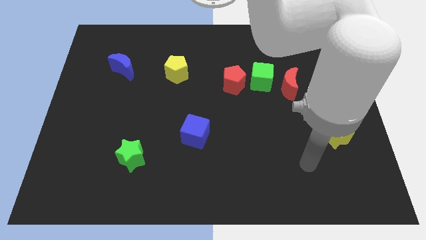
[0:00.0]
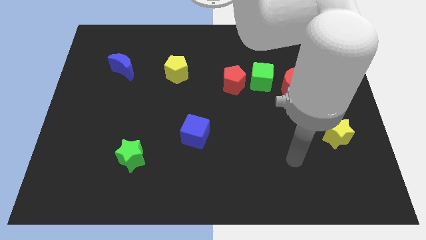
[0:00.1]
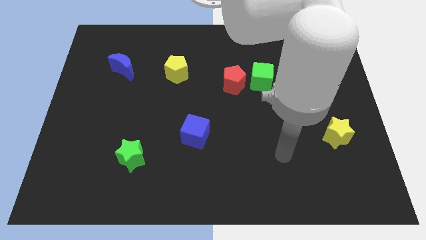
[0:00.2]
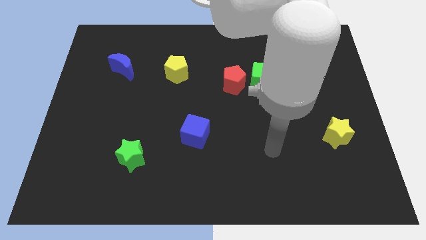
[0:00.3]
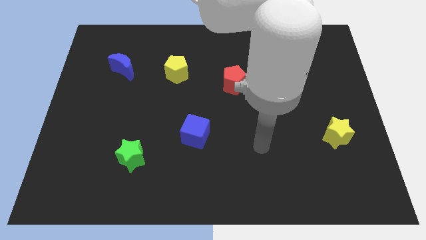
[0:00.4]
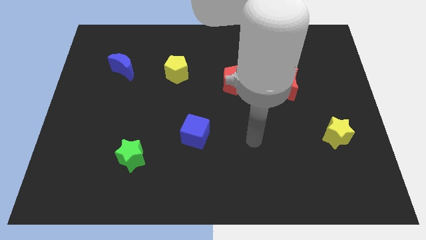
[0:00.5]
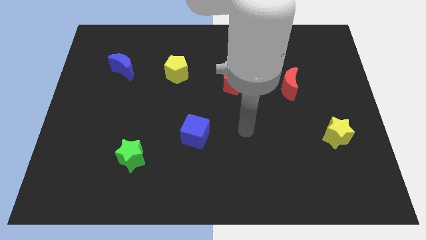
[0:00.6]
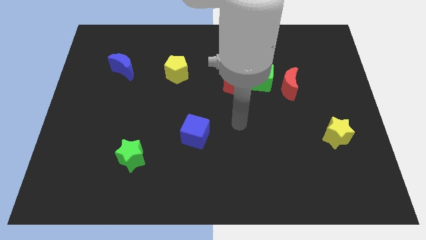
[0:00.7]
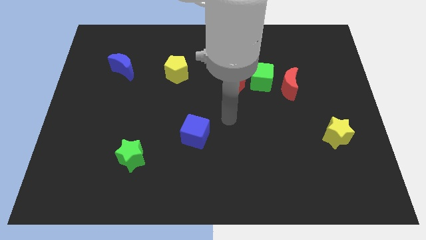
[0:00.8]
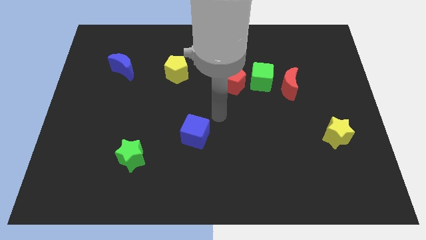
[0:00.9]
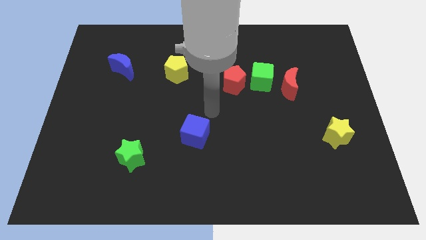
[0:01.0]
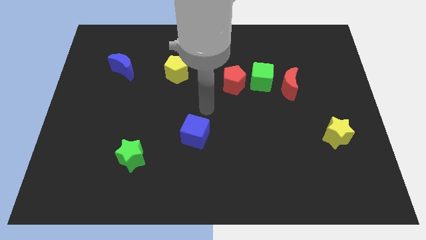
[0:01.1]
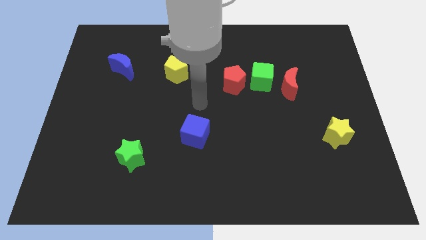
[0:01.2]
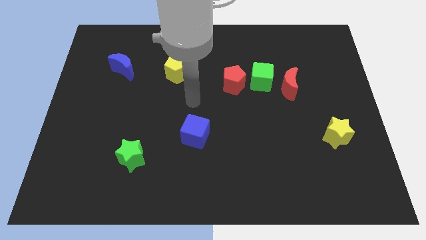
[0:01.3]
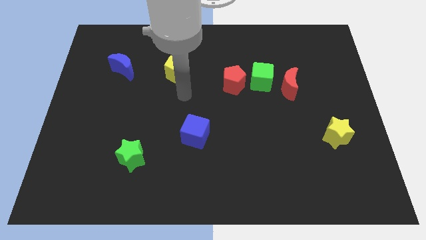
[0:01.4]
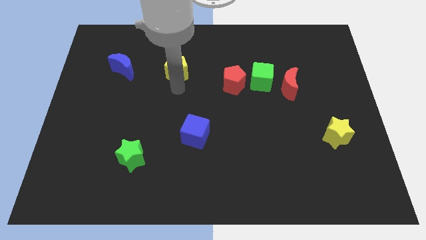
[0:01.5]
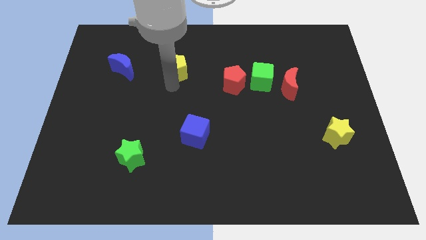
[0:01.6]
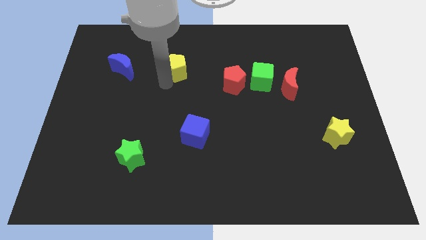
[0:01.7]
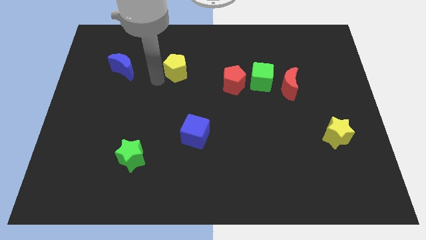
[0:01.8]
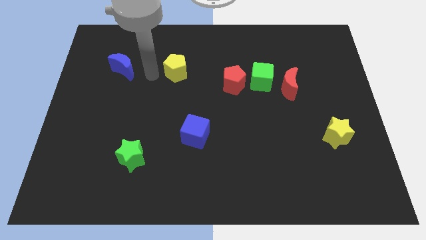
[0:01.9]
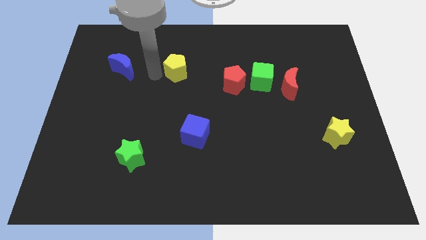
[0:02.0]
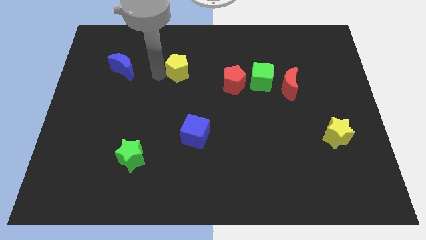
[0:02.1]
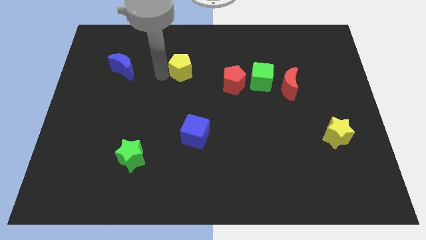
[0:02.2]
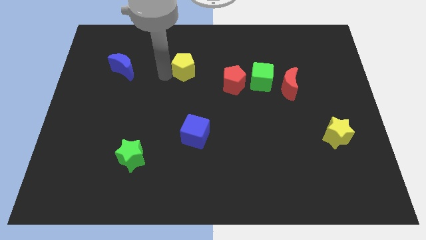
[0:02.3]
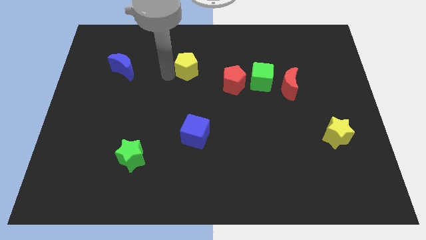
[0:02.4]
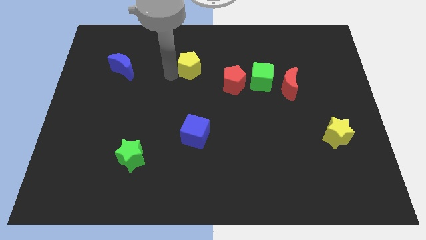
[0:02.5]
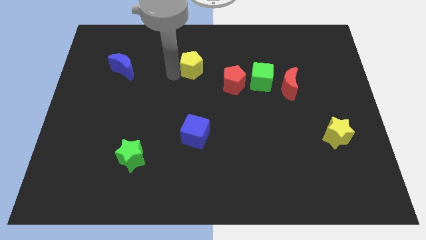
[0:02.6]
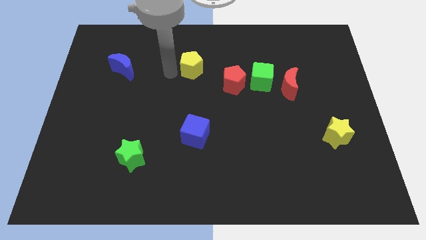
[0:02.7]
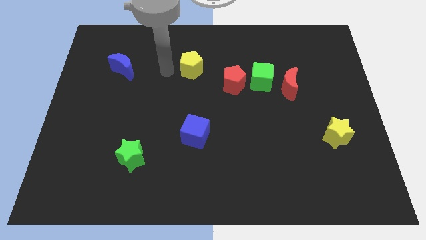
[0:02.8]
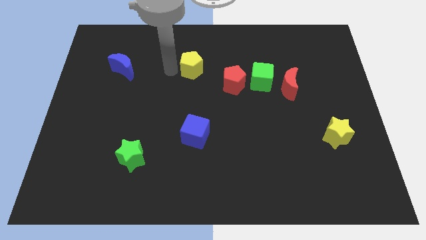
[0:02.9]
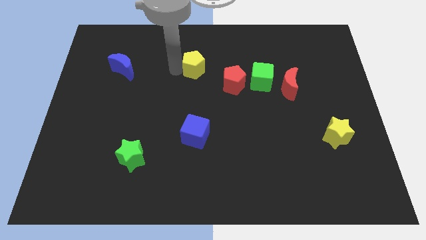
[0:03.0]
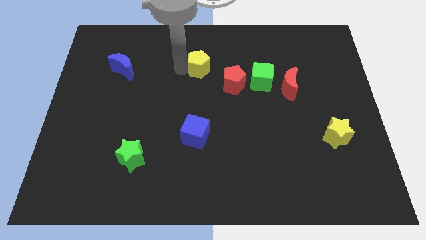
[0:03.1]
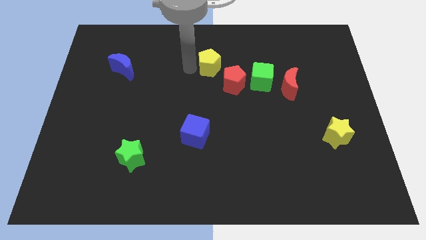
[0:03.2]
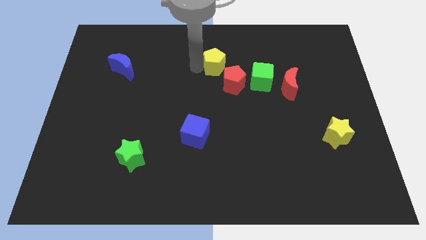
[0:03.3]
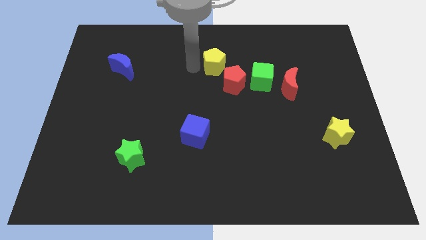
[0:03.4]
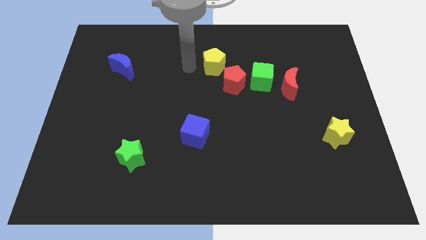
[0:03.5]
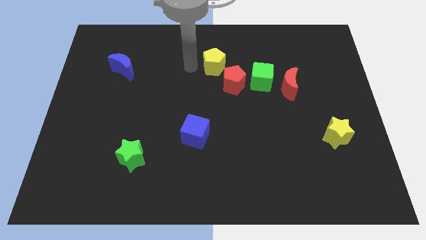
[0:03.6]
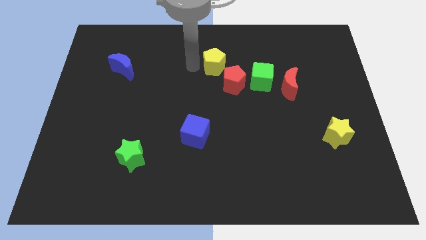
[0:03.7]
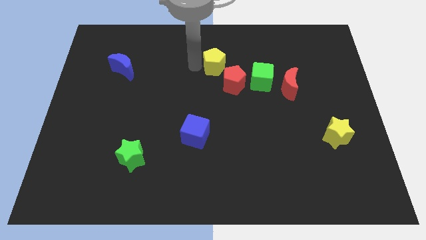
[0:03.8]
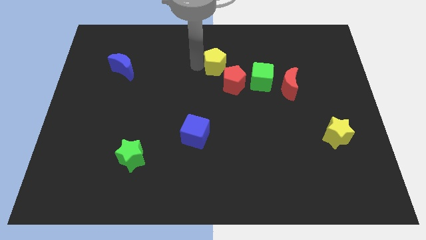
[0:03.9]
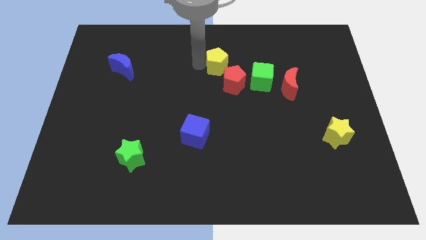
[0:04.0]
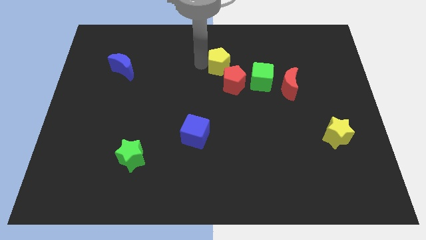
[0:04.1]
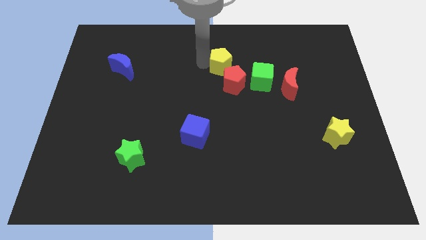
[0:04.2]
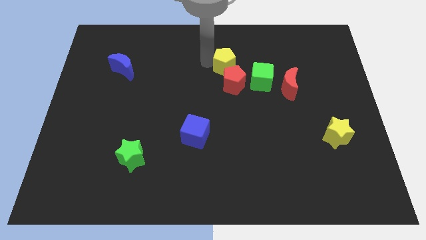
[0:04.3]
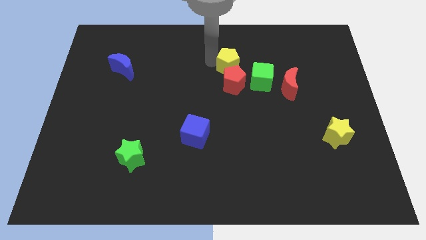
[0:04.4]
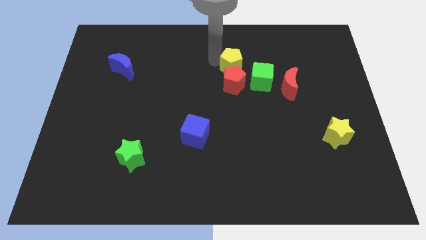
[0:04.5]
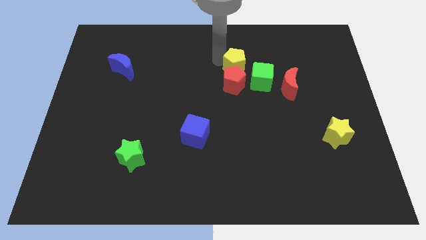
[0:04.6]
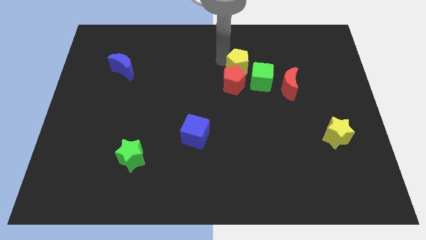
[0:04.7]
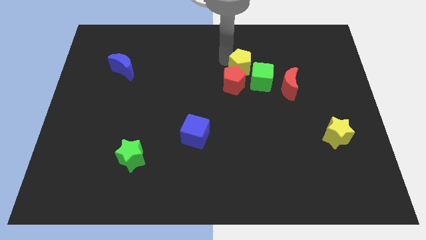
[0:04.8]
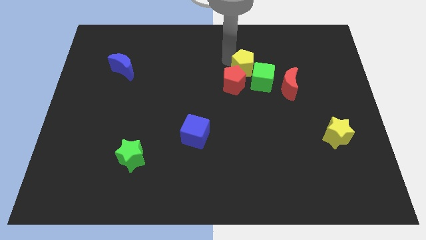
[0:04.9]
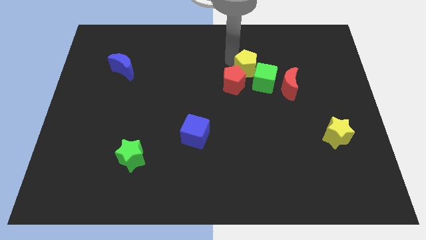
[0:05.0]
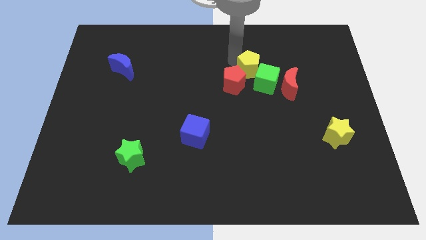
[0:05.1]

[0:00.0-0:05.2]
push the yellow pentagon close to the green cube

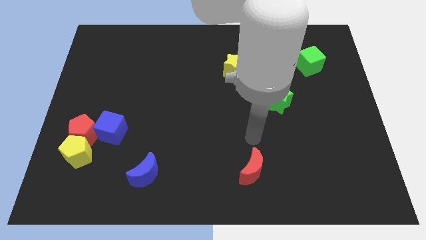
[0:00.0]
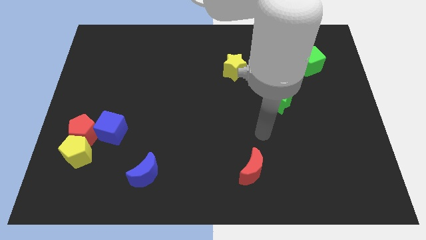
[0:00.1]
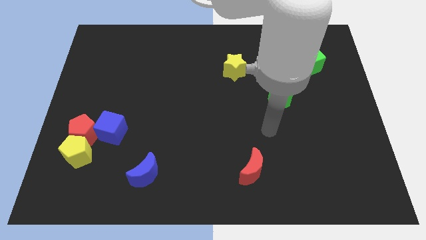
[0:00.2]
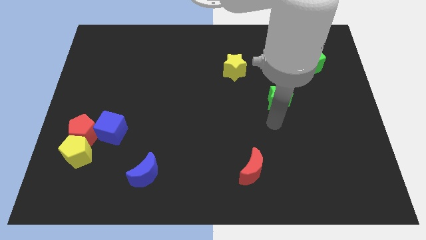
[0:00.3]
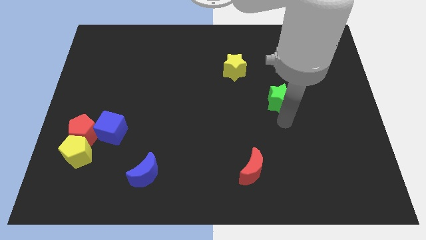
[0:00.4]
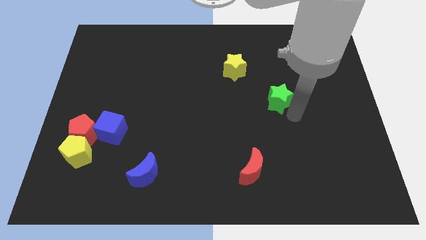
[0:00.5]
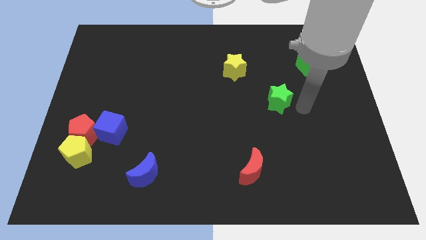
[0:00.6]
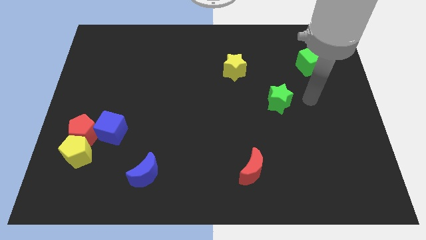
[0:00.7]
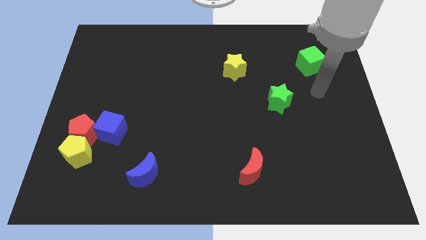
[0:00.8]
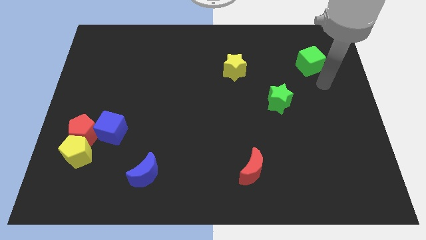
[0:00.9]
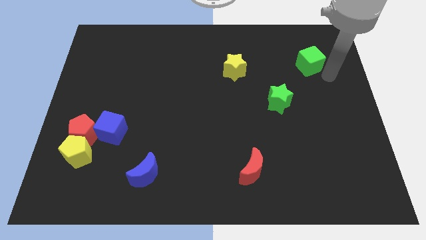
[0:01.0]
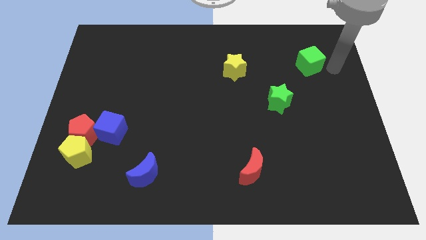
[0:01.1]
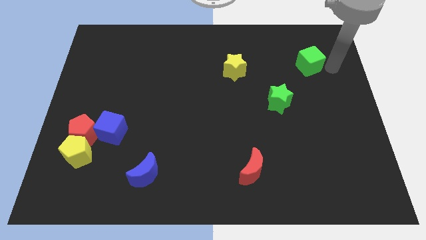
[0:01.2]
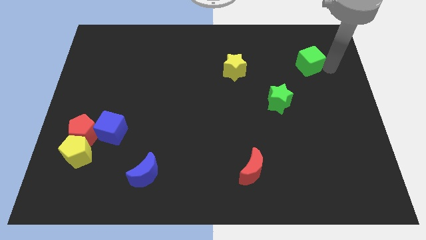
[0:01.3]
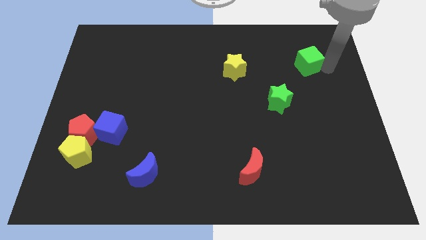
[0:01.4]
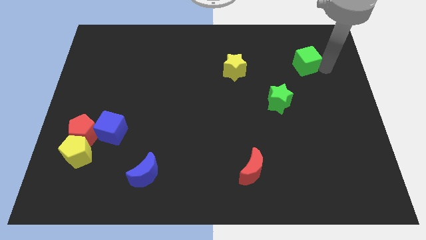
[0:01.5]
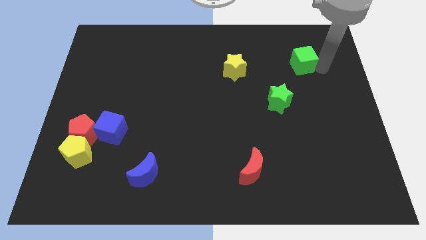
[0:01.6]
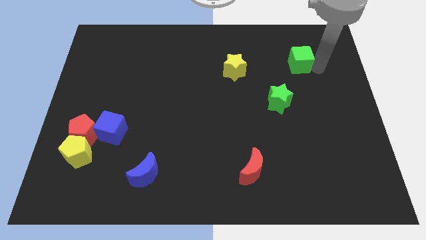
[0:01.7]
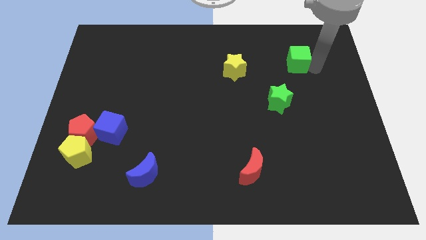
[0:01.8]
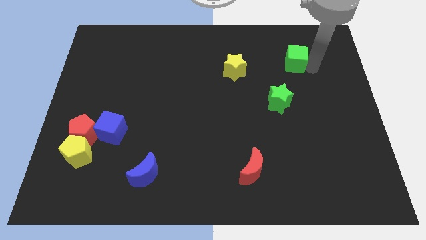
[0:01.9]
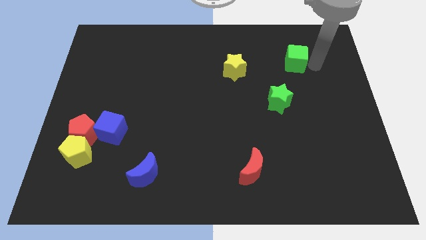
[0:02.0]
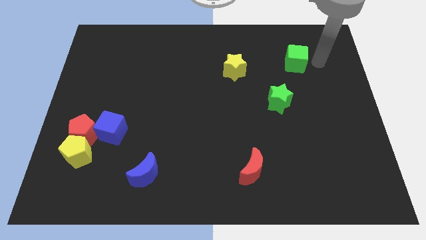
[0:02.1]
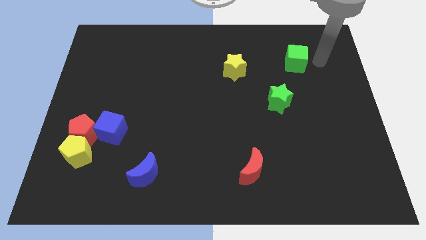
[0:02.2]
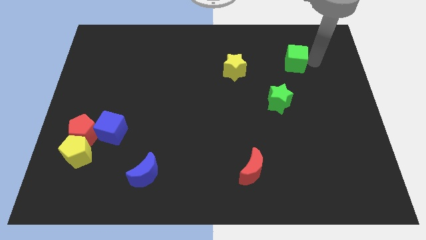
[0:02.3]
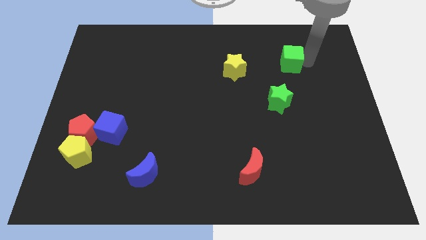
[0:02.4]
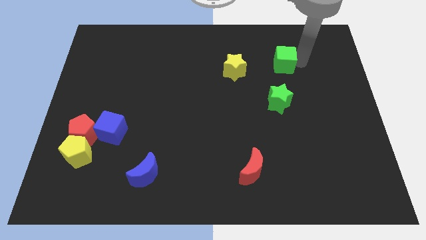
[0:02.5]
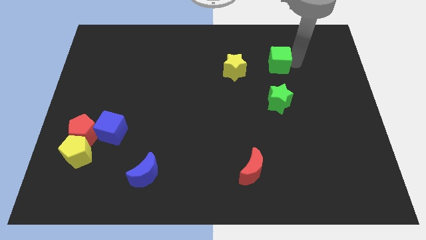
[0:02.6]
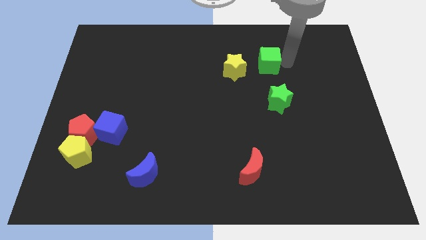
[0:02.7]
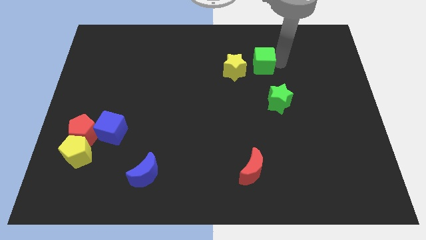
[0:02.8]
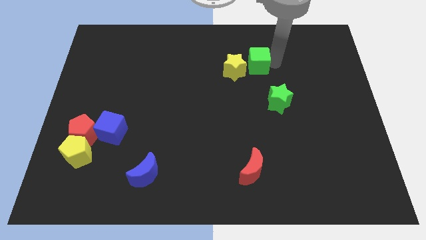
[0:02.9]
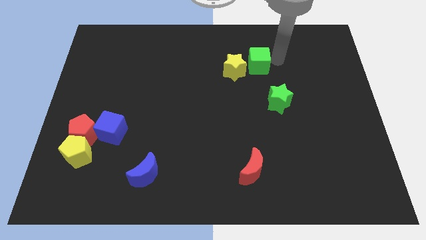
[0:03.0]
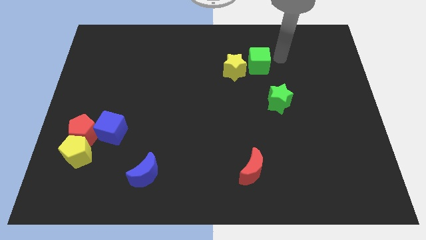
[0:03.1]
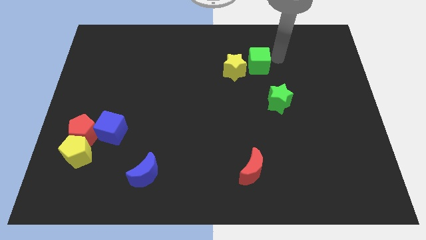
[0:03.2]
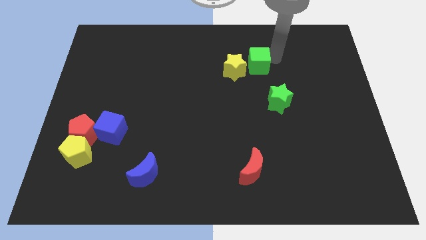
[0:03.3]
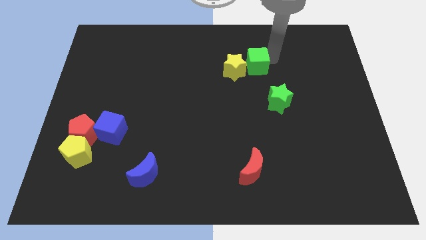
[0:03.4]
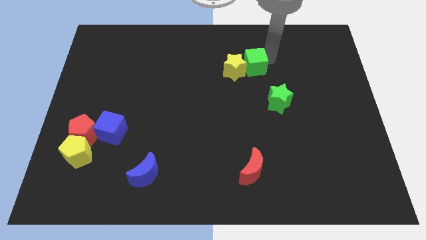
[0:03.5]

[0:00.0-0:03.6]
push the green cube close to the yellow star
